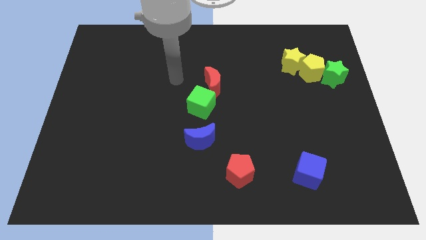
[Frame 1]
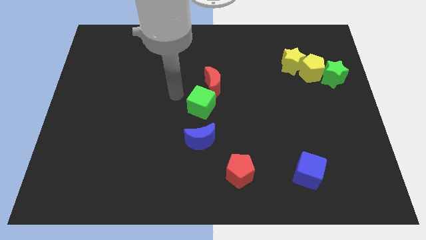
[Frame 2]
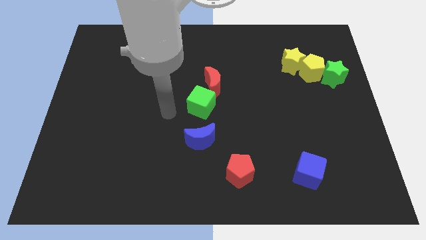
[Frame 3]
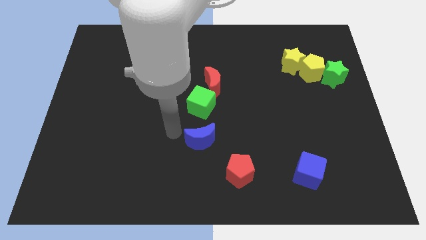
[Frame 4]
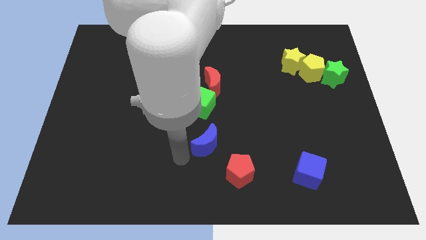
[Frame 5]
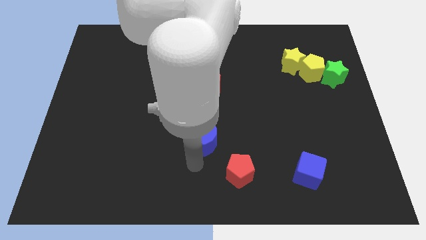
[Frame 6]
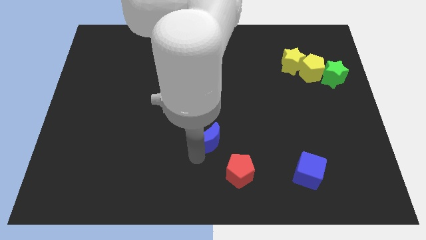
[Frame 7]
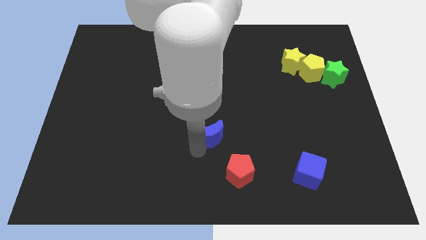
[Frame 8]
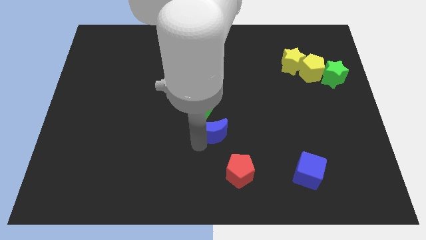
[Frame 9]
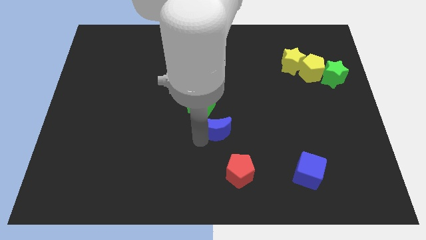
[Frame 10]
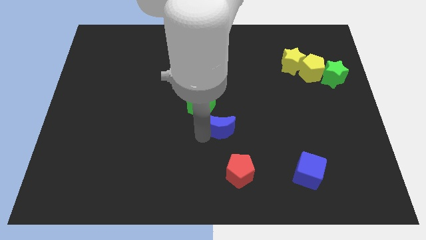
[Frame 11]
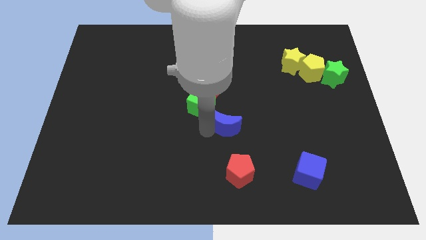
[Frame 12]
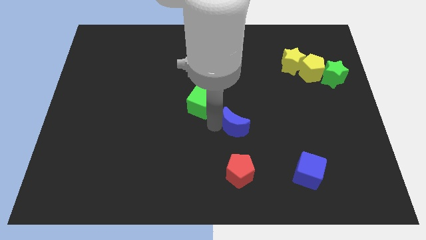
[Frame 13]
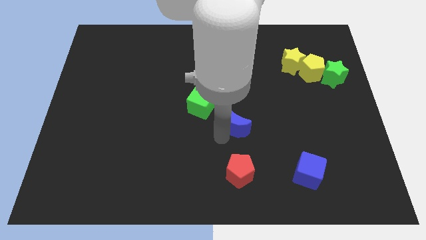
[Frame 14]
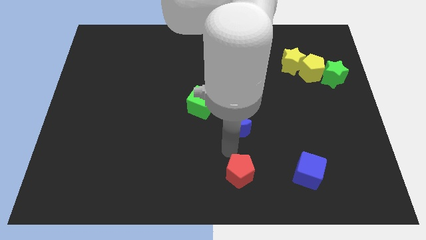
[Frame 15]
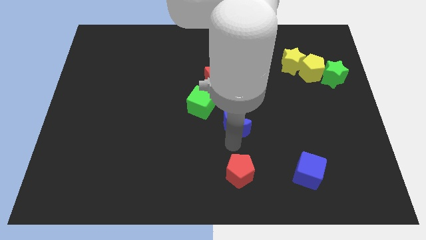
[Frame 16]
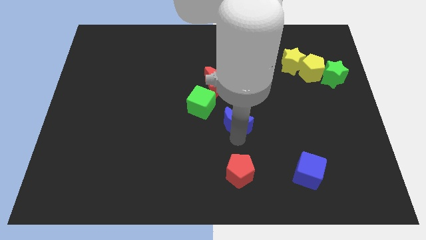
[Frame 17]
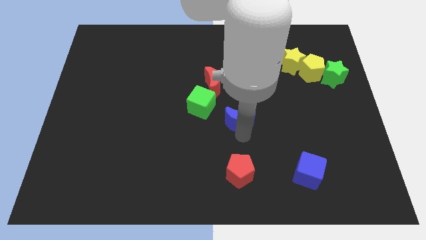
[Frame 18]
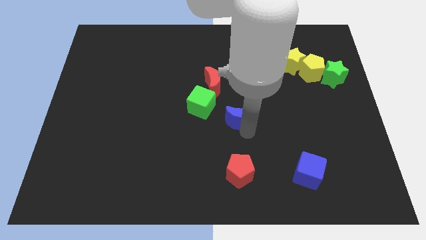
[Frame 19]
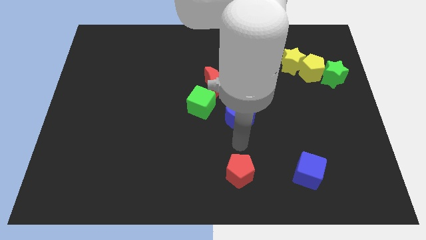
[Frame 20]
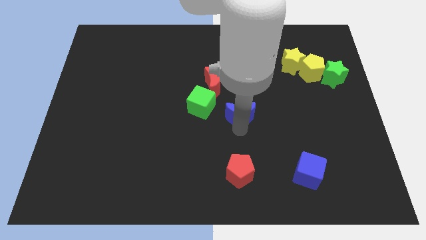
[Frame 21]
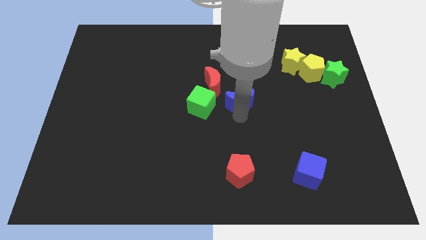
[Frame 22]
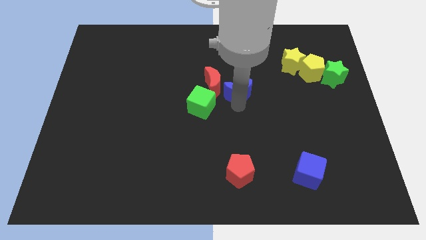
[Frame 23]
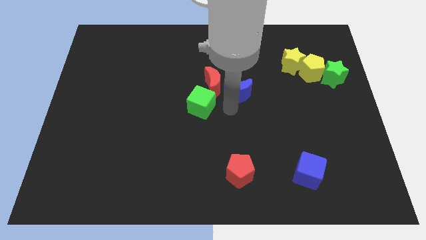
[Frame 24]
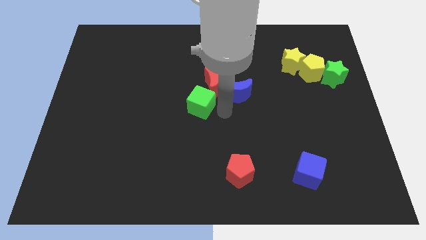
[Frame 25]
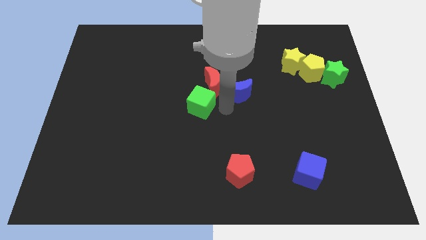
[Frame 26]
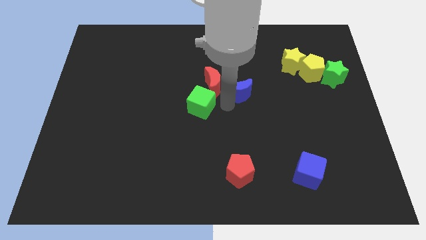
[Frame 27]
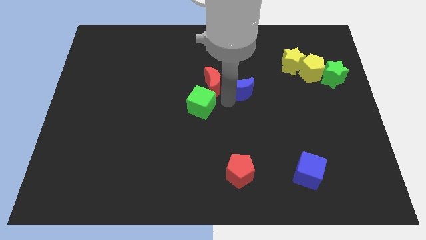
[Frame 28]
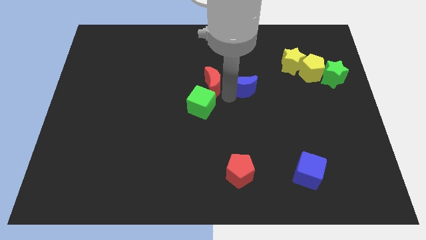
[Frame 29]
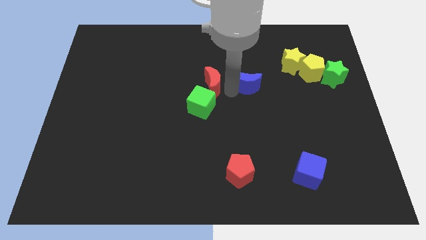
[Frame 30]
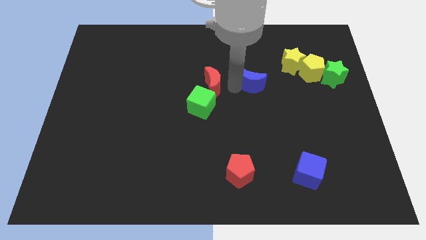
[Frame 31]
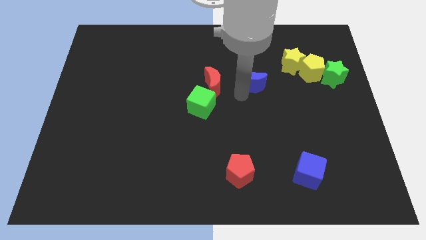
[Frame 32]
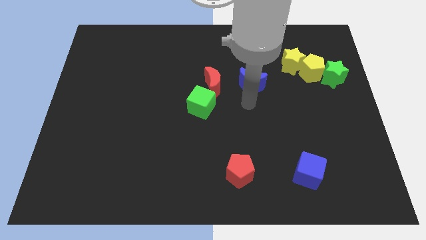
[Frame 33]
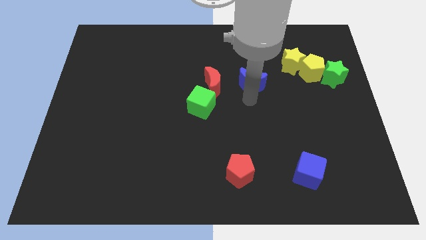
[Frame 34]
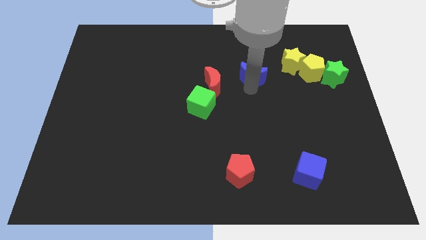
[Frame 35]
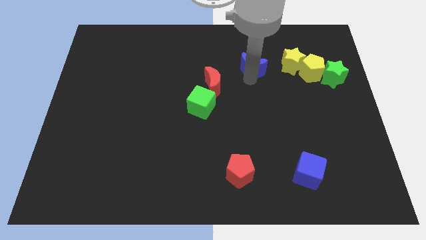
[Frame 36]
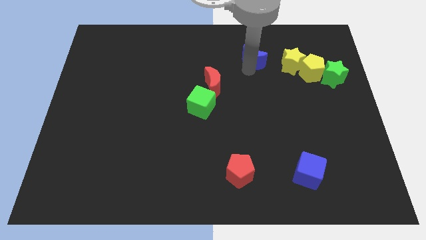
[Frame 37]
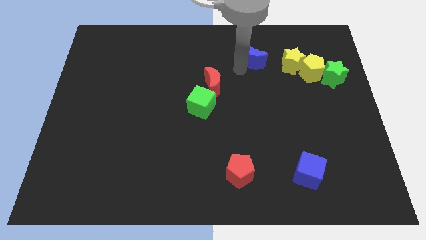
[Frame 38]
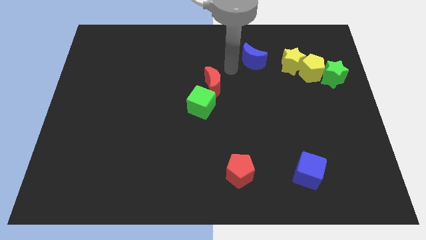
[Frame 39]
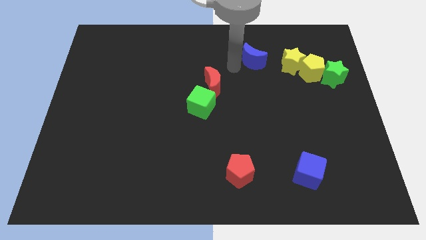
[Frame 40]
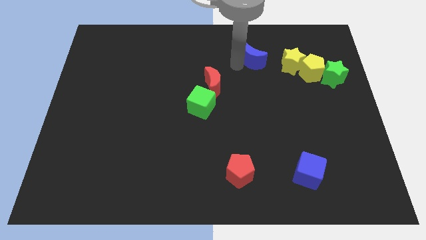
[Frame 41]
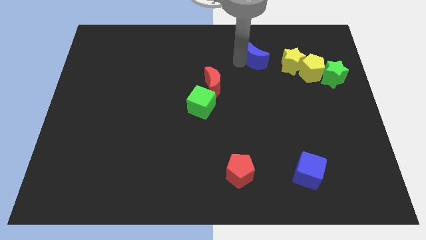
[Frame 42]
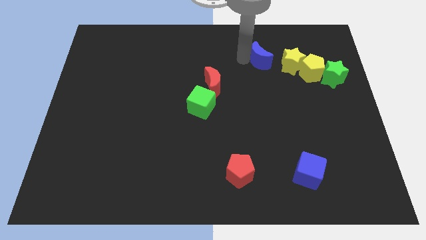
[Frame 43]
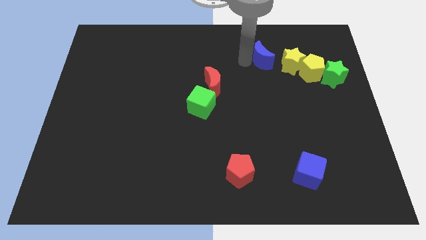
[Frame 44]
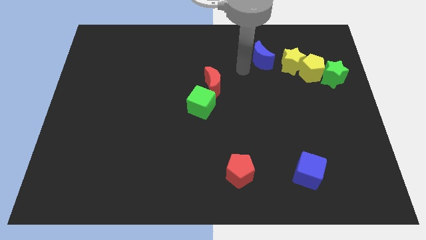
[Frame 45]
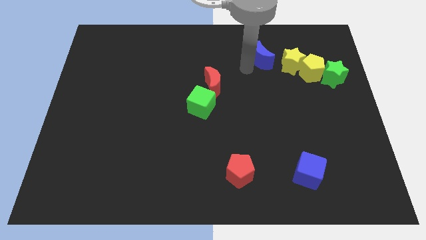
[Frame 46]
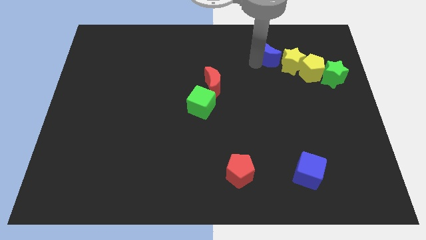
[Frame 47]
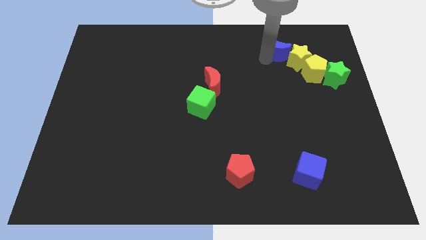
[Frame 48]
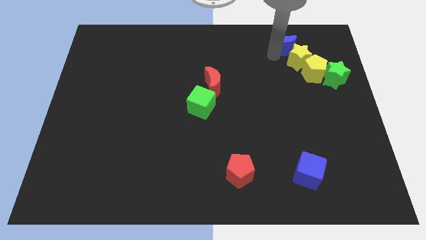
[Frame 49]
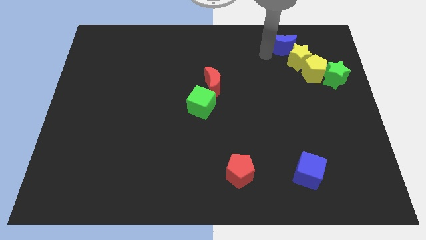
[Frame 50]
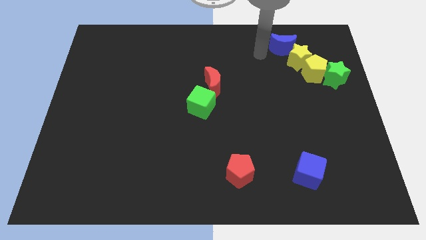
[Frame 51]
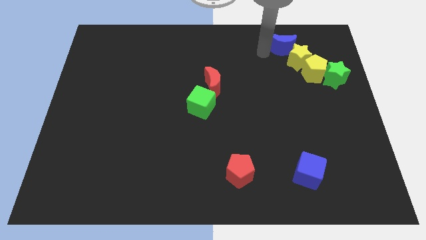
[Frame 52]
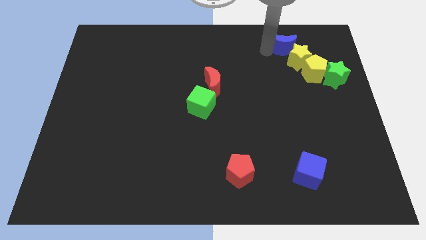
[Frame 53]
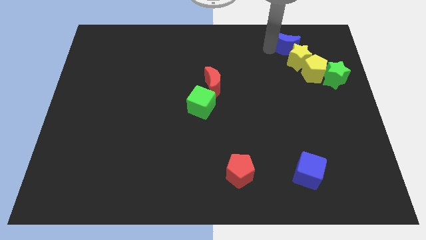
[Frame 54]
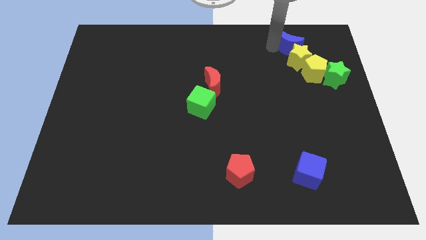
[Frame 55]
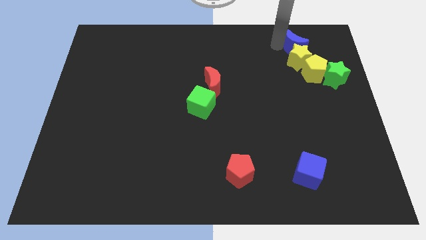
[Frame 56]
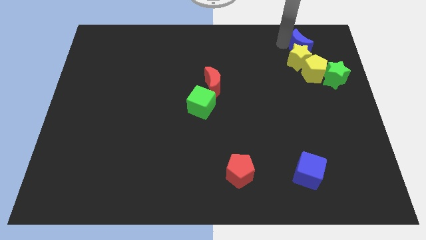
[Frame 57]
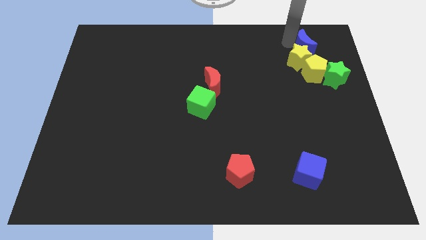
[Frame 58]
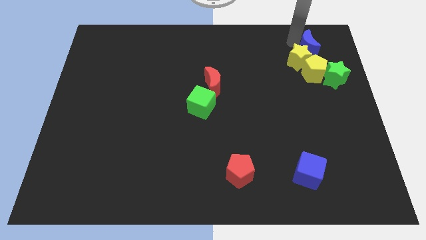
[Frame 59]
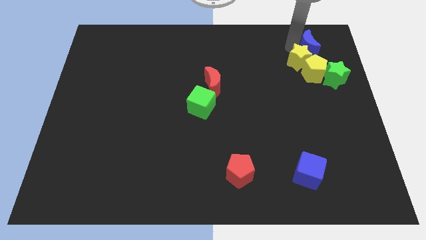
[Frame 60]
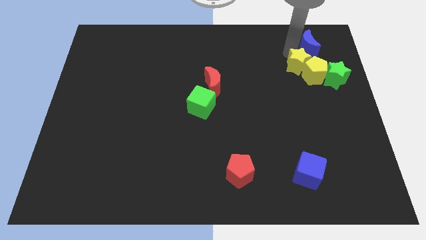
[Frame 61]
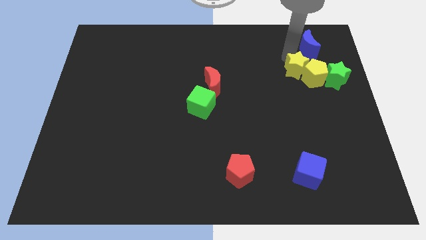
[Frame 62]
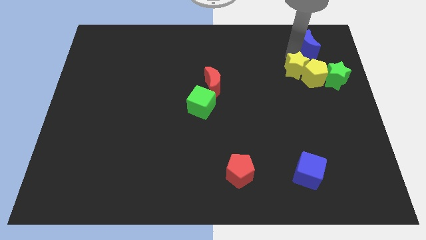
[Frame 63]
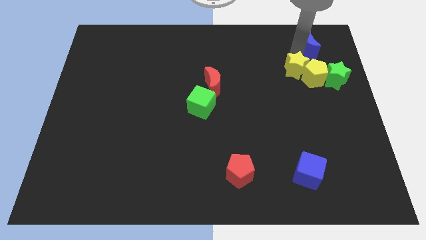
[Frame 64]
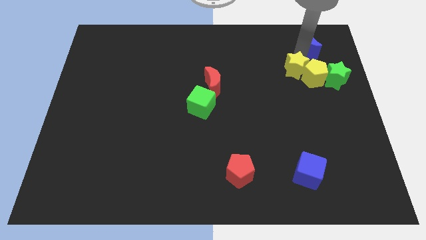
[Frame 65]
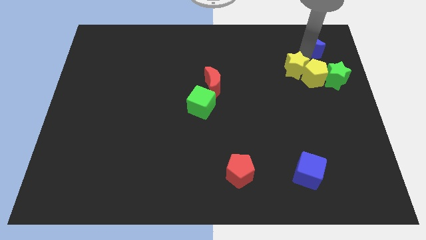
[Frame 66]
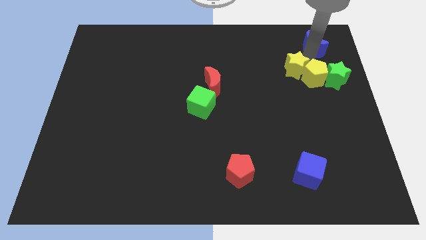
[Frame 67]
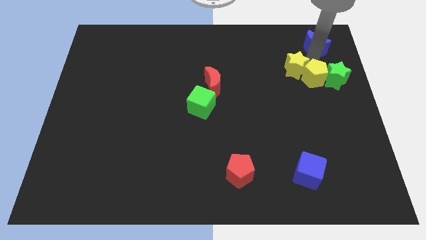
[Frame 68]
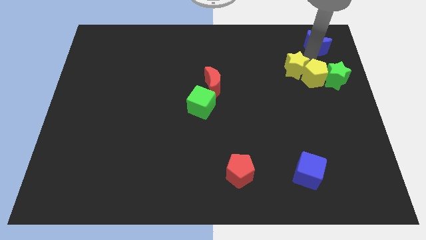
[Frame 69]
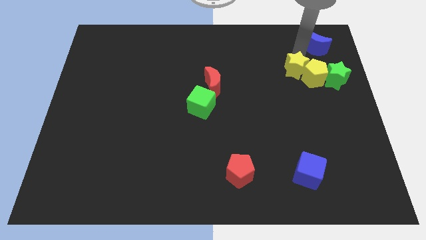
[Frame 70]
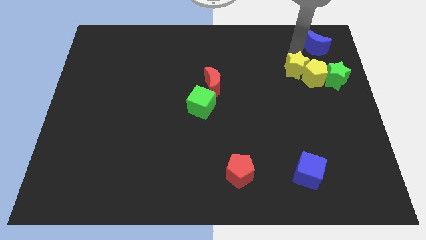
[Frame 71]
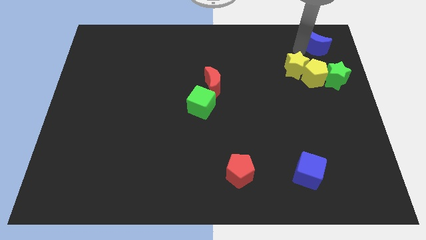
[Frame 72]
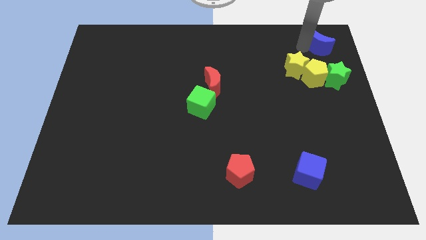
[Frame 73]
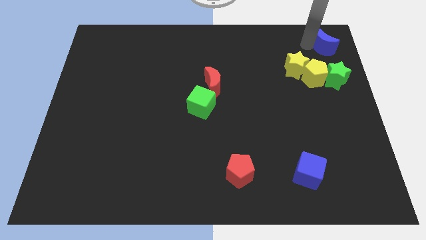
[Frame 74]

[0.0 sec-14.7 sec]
move the blue moon to the upper right corner
